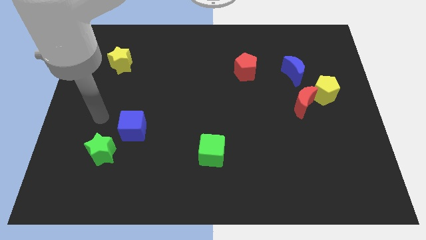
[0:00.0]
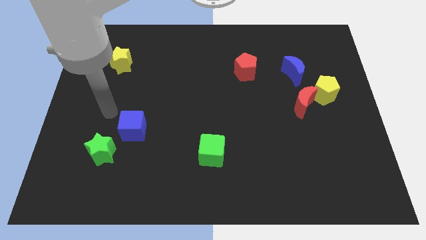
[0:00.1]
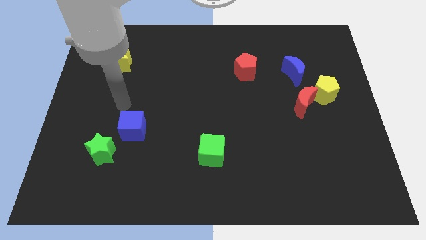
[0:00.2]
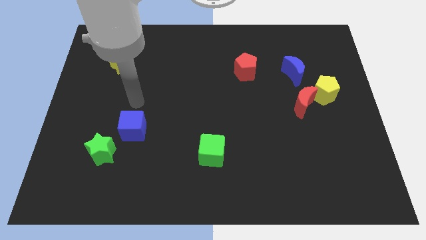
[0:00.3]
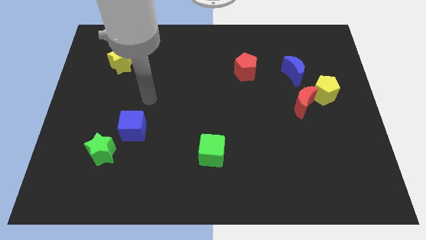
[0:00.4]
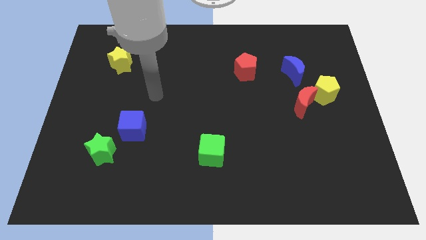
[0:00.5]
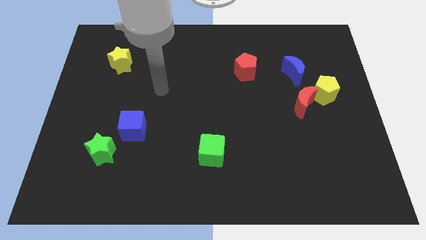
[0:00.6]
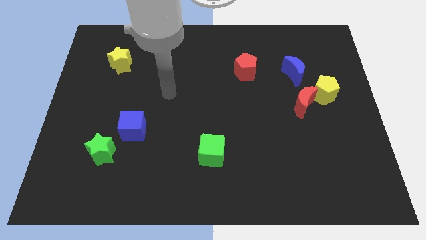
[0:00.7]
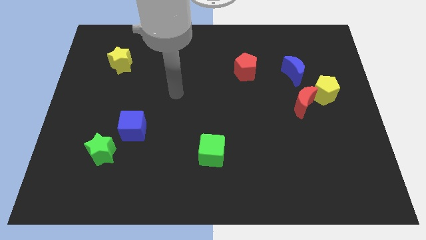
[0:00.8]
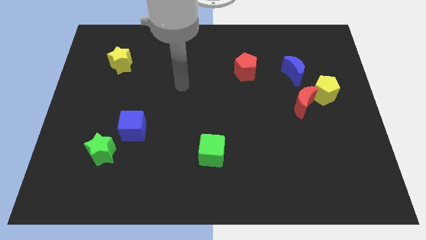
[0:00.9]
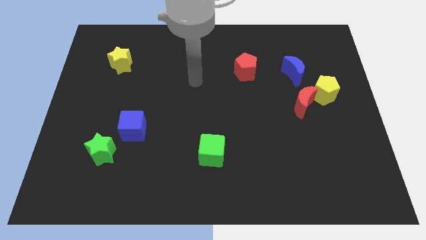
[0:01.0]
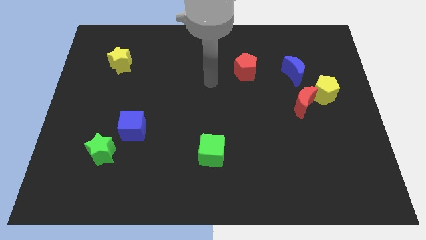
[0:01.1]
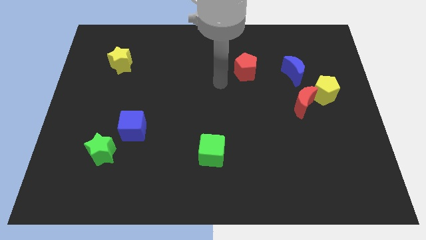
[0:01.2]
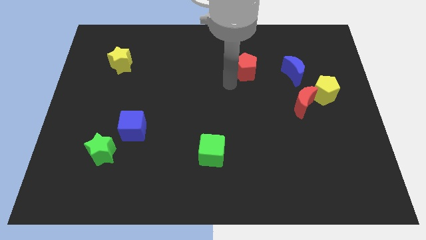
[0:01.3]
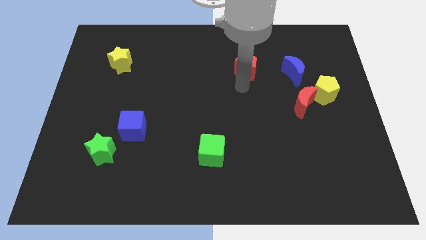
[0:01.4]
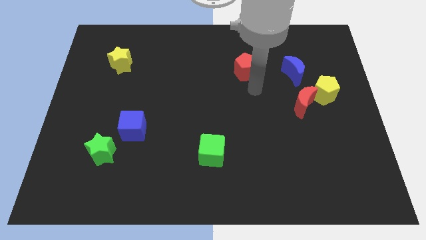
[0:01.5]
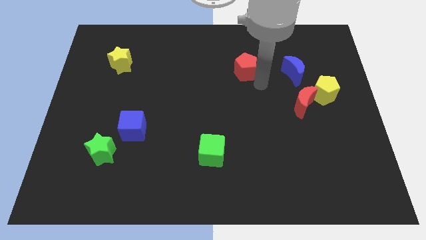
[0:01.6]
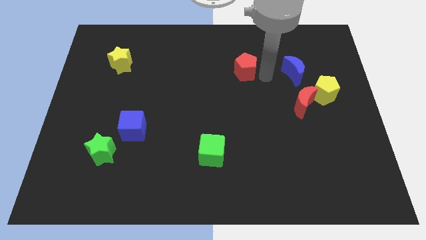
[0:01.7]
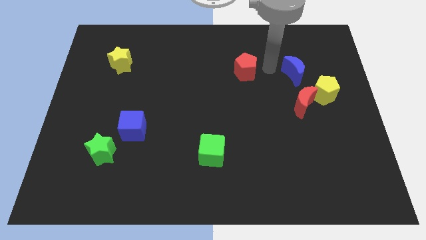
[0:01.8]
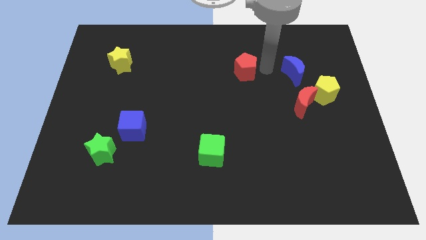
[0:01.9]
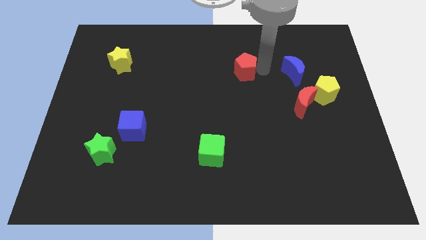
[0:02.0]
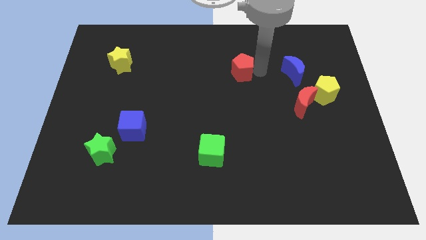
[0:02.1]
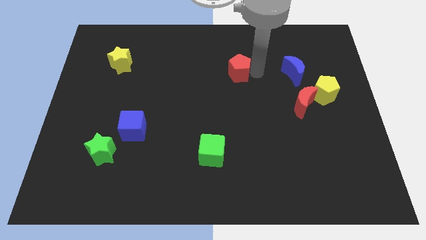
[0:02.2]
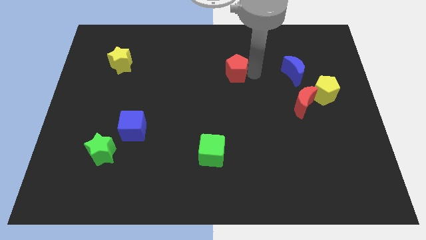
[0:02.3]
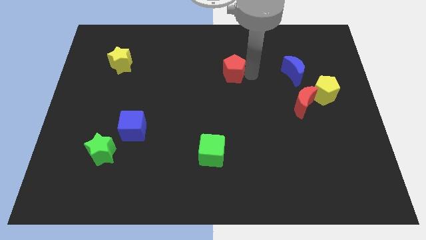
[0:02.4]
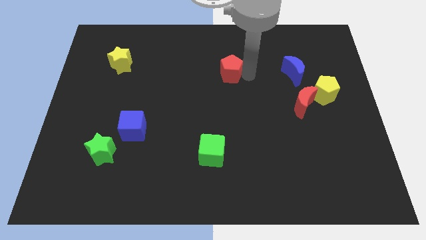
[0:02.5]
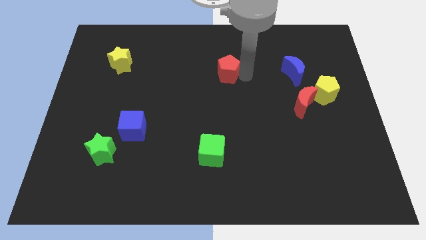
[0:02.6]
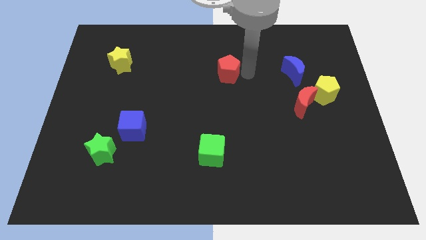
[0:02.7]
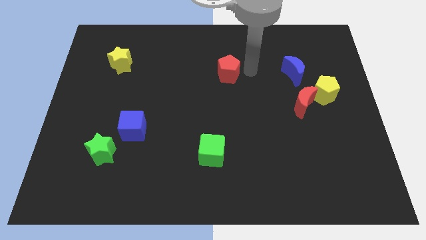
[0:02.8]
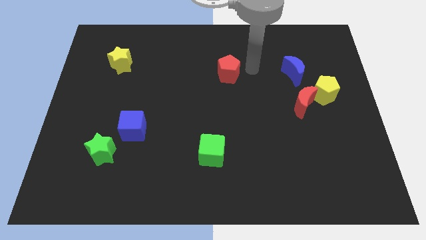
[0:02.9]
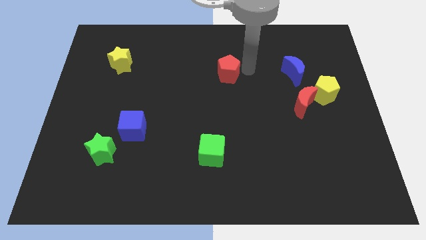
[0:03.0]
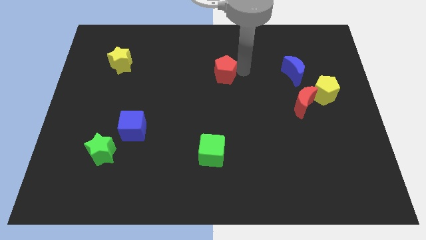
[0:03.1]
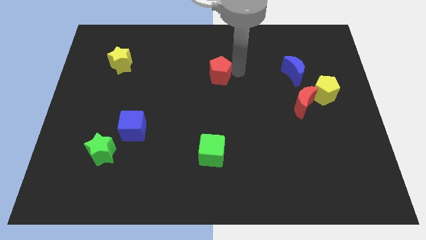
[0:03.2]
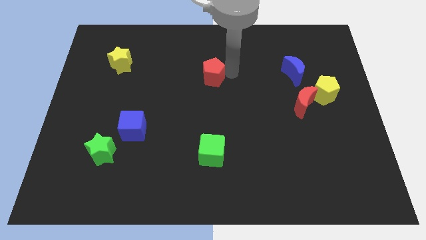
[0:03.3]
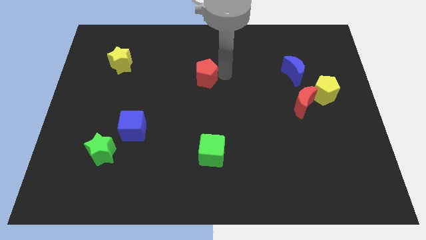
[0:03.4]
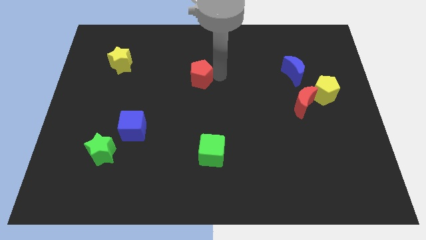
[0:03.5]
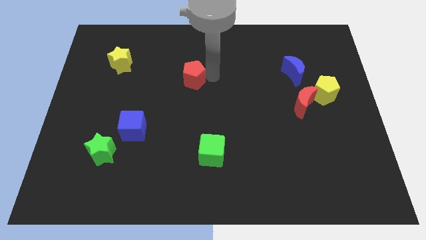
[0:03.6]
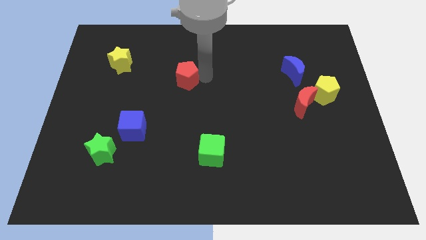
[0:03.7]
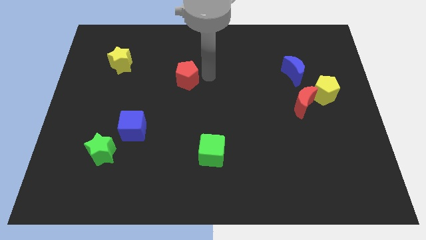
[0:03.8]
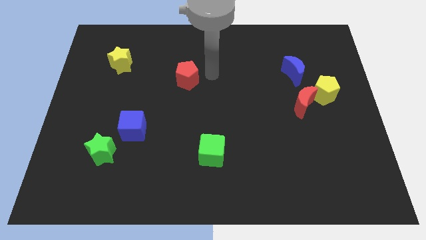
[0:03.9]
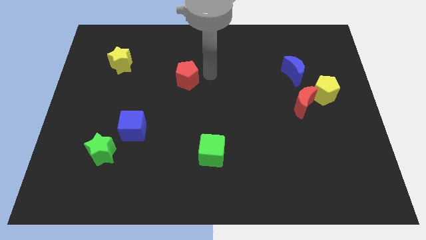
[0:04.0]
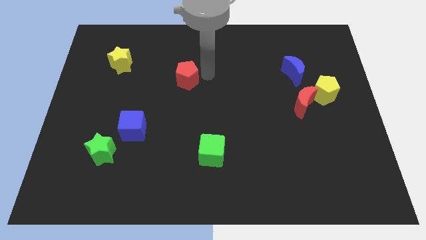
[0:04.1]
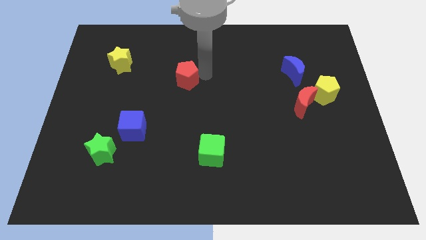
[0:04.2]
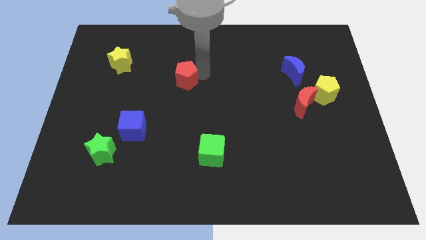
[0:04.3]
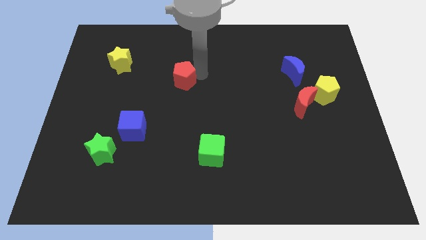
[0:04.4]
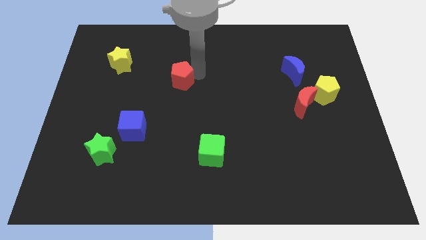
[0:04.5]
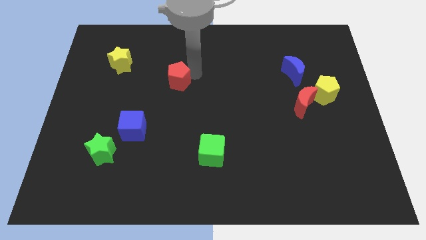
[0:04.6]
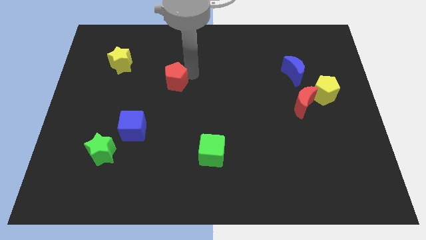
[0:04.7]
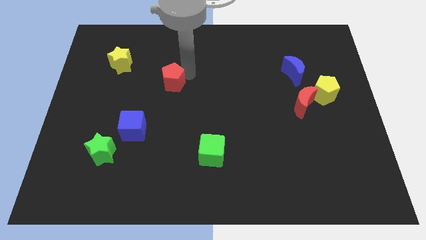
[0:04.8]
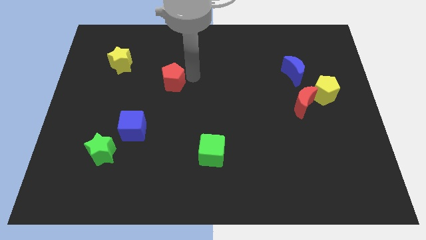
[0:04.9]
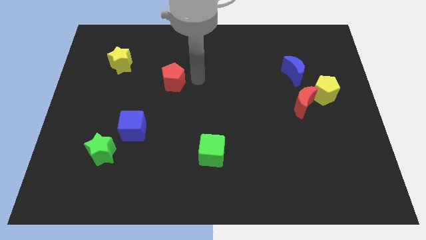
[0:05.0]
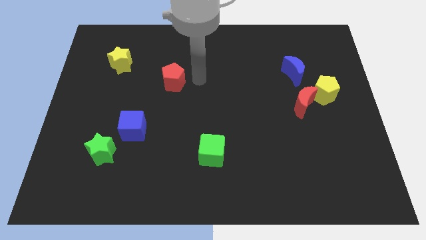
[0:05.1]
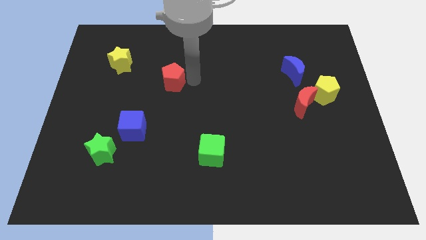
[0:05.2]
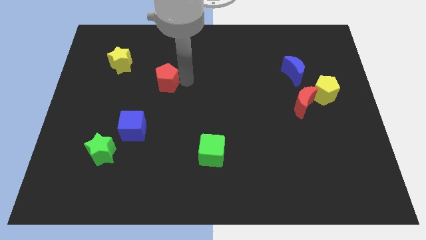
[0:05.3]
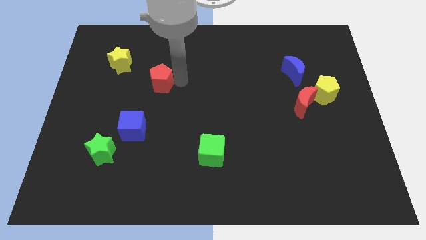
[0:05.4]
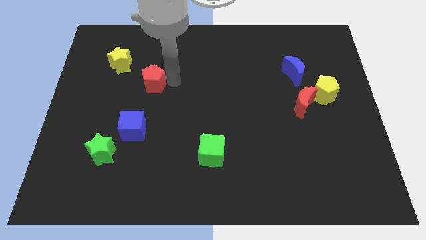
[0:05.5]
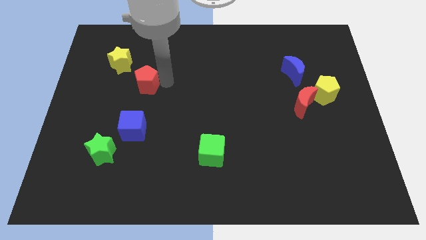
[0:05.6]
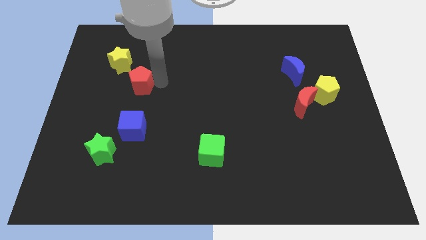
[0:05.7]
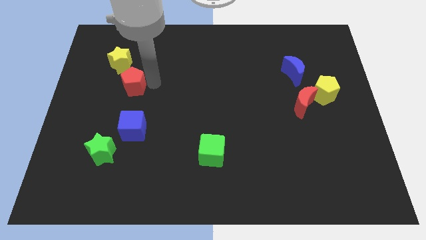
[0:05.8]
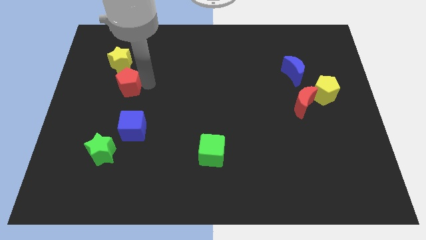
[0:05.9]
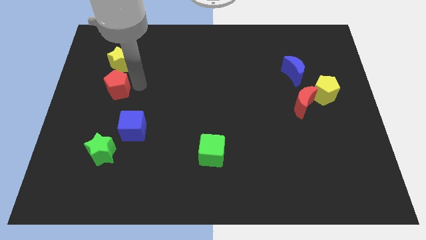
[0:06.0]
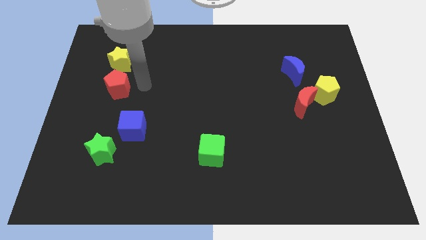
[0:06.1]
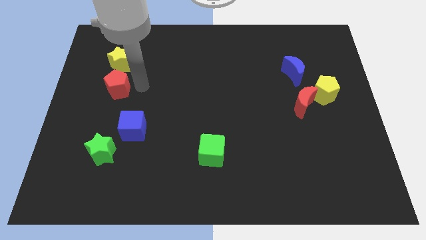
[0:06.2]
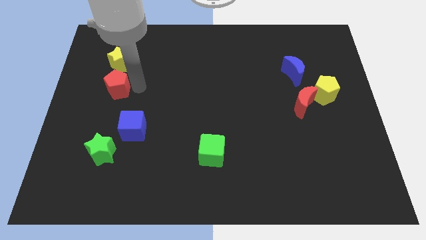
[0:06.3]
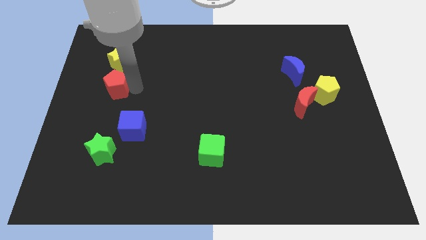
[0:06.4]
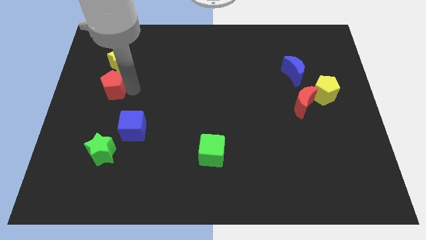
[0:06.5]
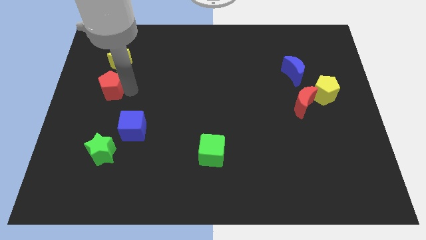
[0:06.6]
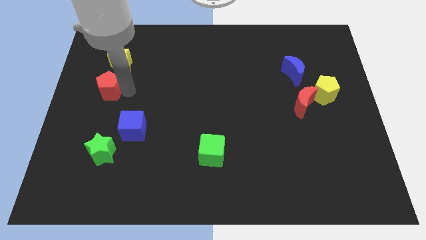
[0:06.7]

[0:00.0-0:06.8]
push the red pentagon to the center left
